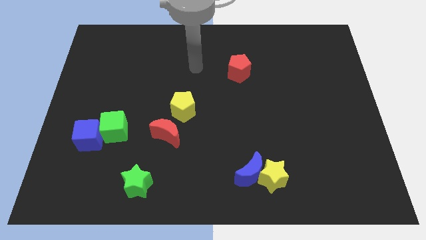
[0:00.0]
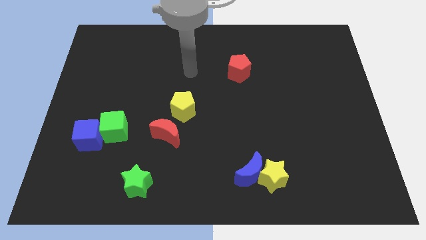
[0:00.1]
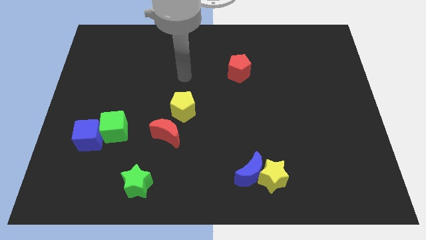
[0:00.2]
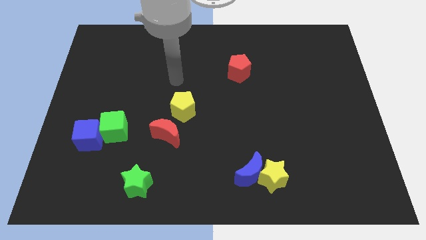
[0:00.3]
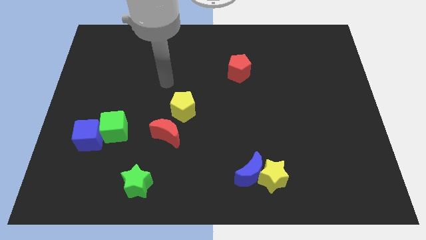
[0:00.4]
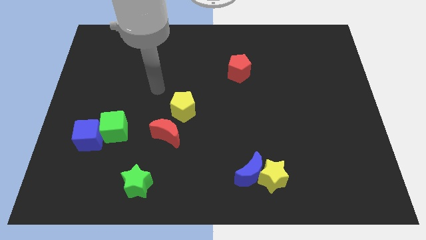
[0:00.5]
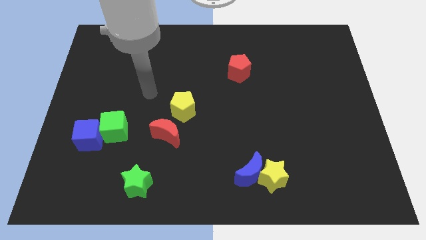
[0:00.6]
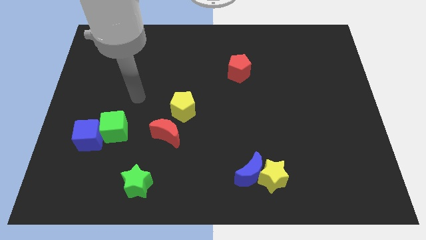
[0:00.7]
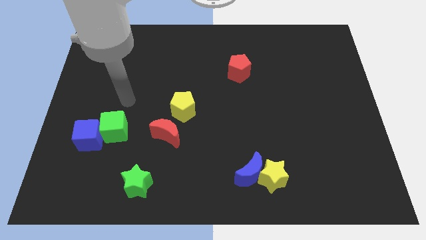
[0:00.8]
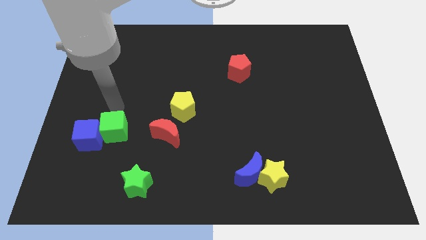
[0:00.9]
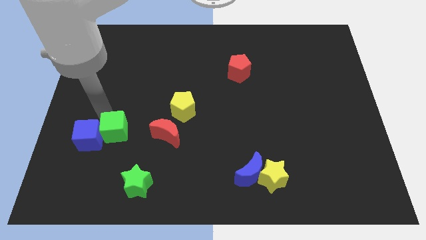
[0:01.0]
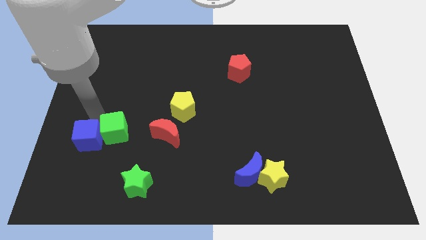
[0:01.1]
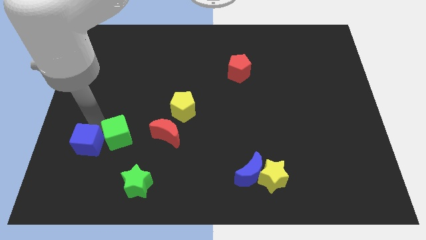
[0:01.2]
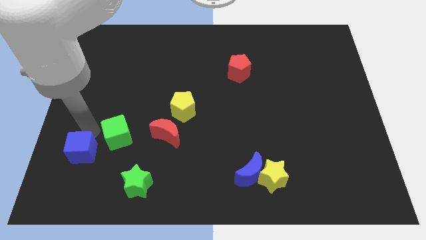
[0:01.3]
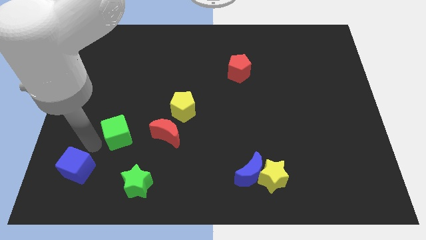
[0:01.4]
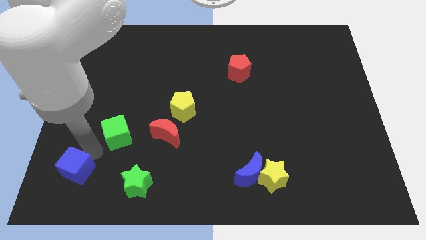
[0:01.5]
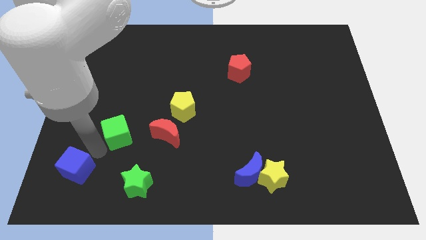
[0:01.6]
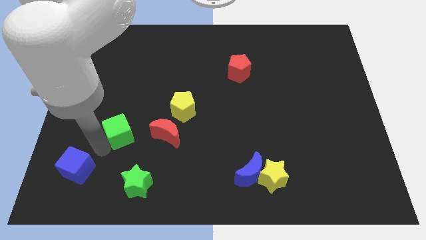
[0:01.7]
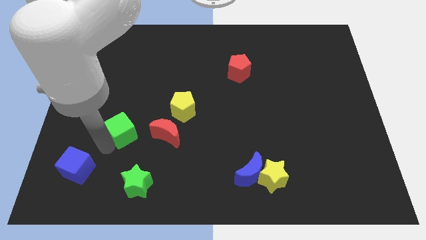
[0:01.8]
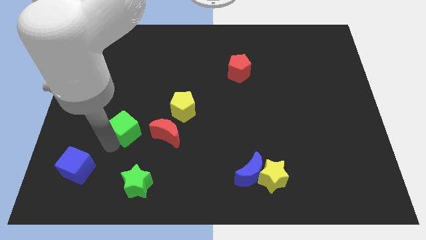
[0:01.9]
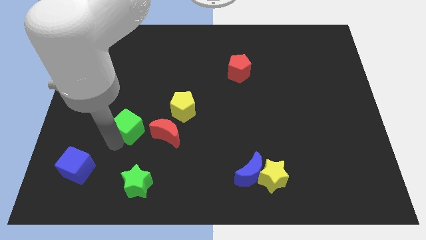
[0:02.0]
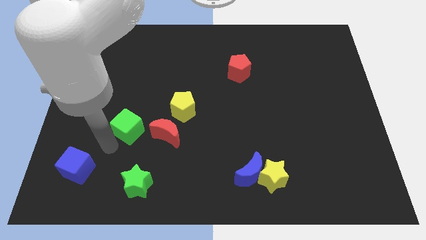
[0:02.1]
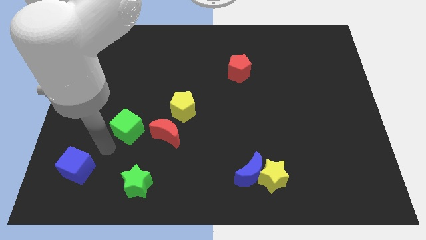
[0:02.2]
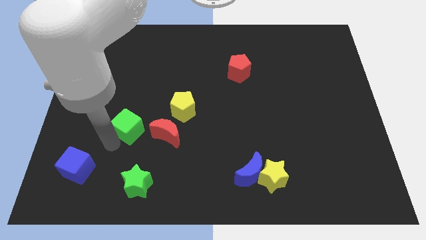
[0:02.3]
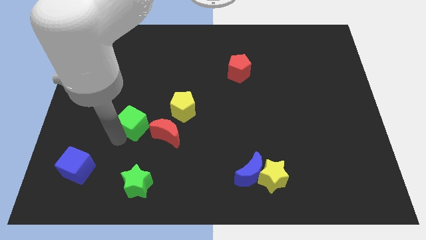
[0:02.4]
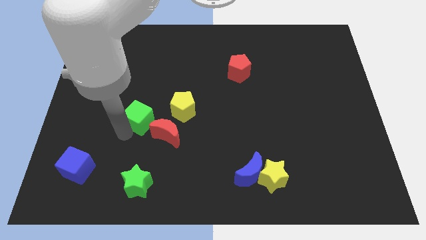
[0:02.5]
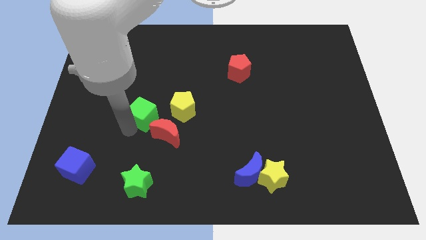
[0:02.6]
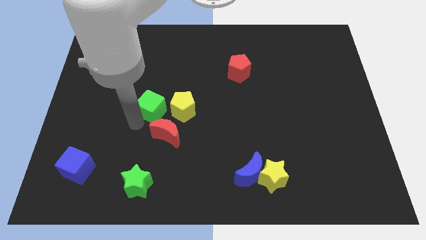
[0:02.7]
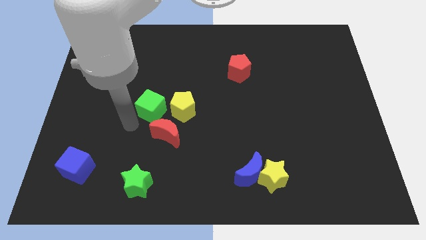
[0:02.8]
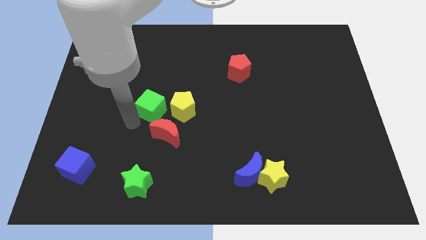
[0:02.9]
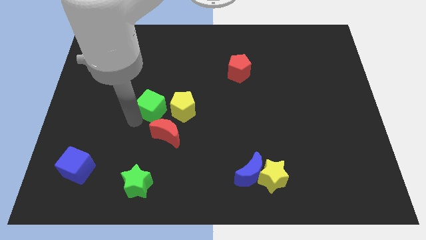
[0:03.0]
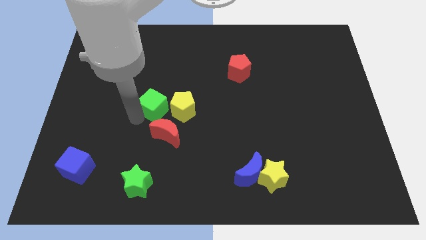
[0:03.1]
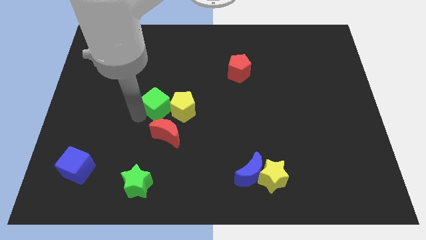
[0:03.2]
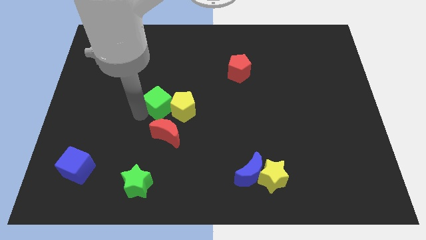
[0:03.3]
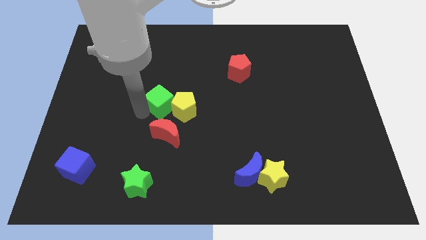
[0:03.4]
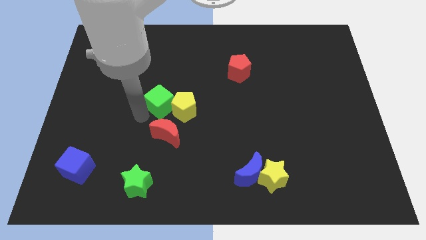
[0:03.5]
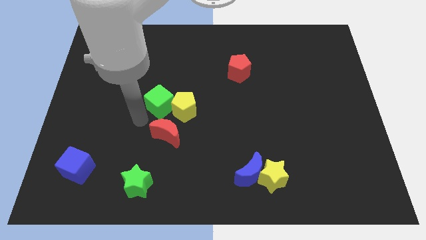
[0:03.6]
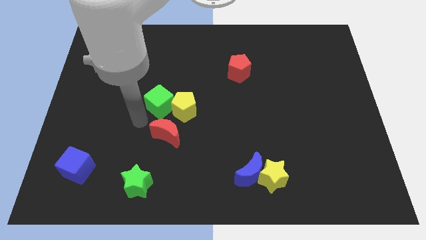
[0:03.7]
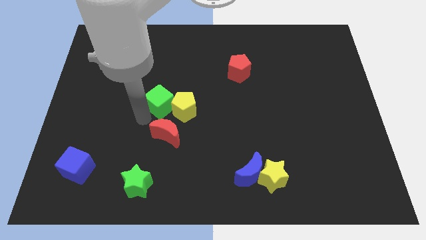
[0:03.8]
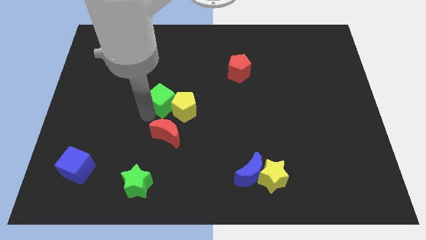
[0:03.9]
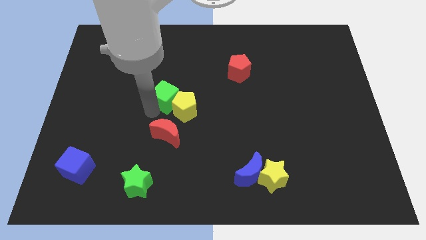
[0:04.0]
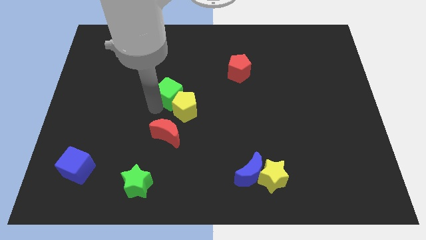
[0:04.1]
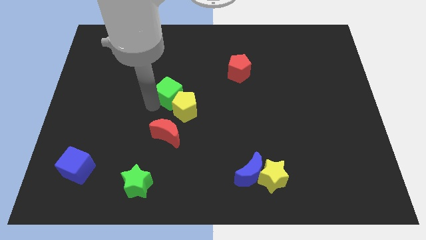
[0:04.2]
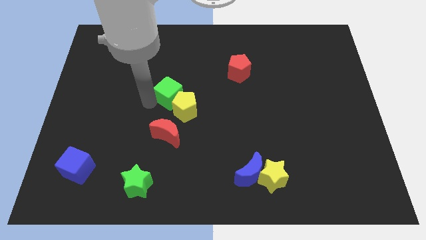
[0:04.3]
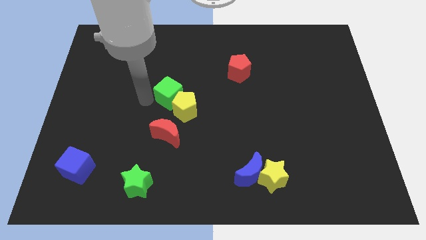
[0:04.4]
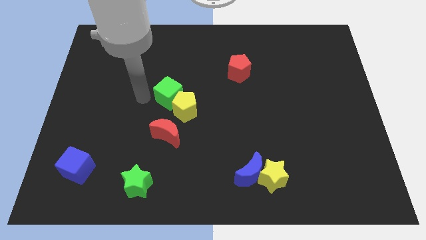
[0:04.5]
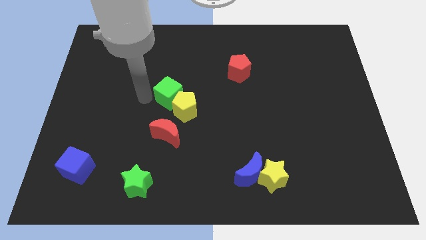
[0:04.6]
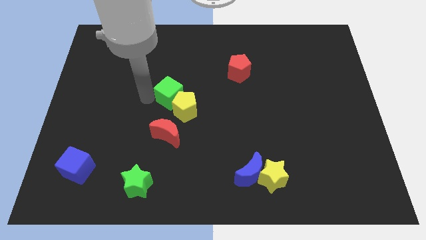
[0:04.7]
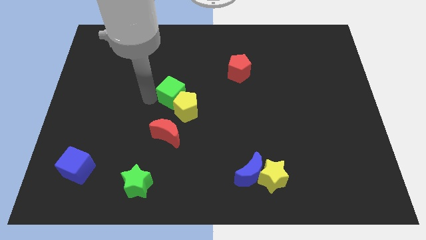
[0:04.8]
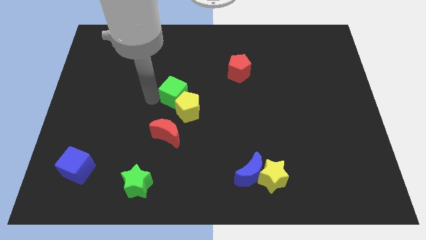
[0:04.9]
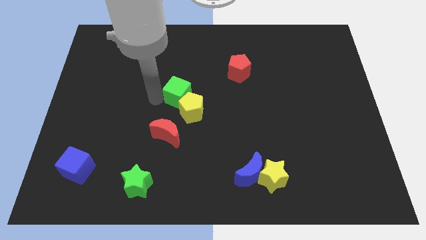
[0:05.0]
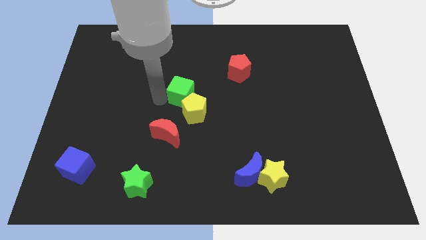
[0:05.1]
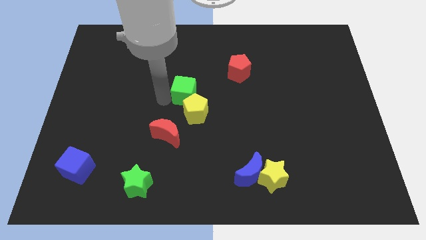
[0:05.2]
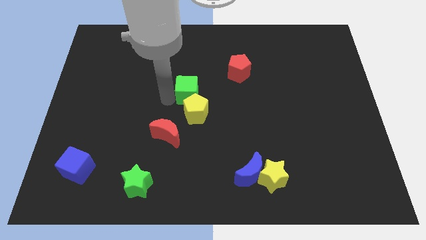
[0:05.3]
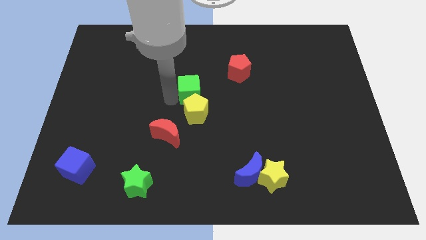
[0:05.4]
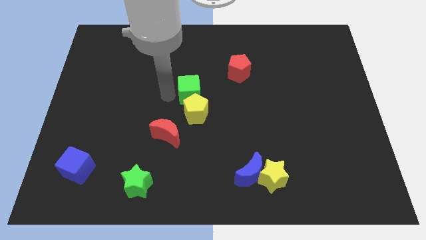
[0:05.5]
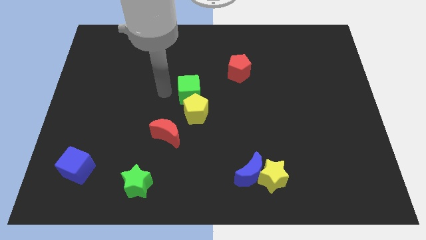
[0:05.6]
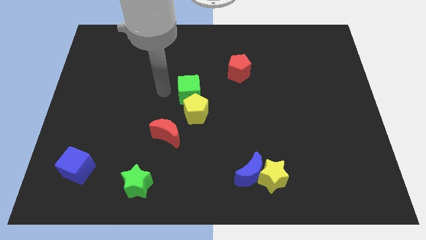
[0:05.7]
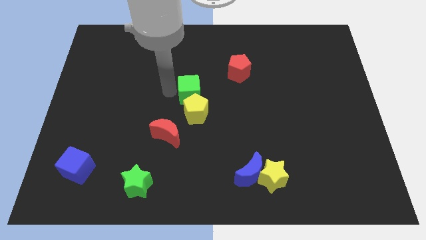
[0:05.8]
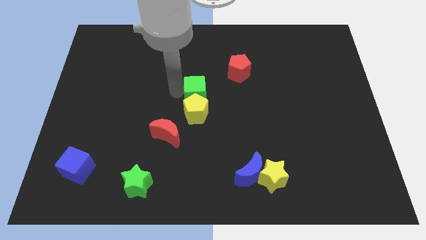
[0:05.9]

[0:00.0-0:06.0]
slide the green cube to the top right side of the yellow pentagon

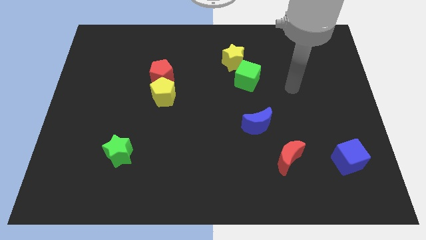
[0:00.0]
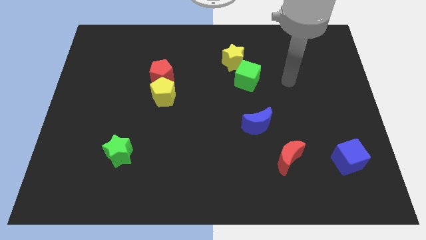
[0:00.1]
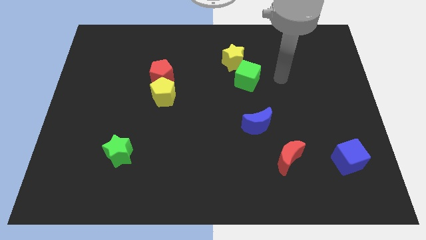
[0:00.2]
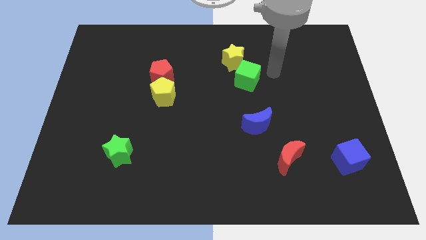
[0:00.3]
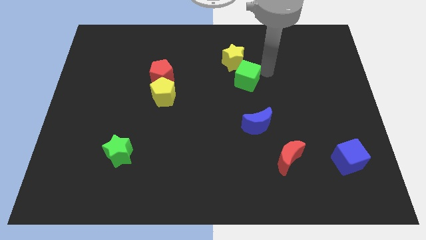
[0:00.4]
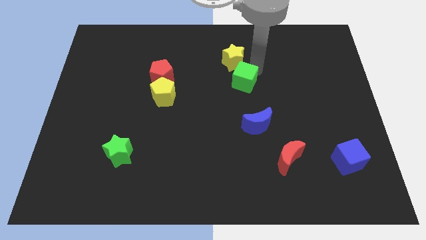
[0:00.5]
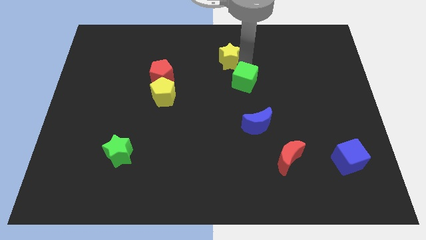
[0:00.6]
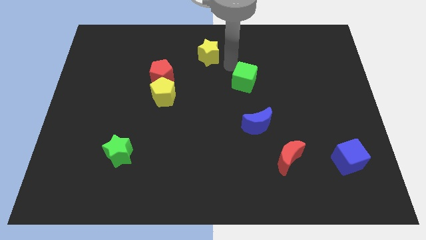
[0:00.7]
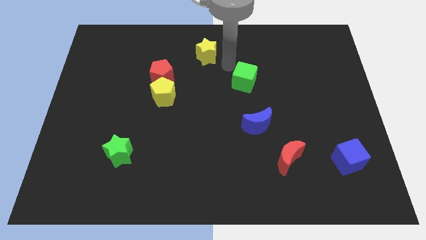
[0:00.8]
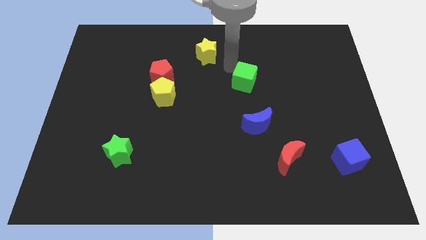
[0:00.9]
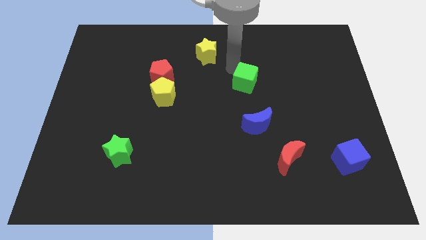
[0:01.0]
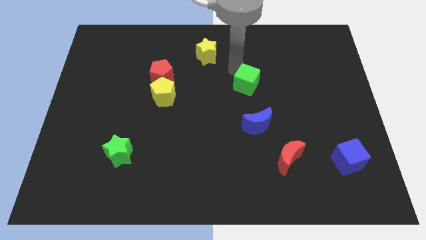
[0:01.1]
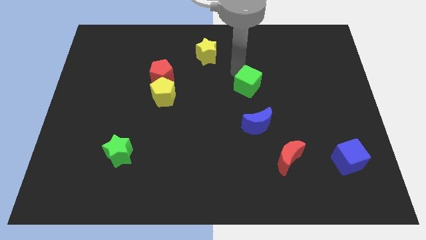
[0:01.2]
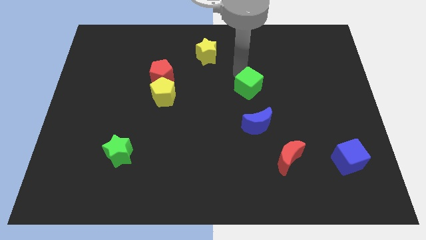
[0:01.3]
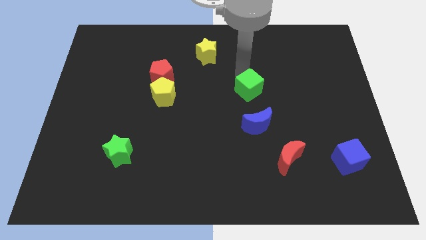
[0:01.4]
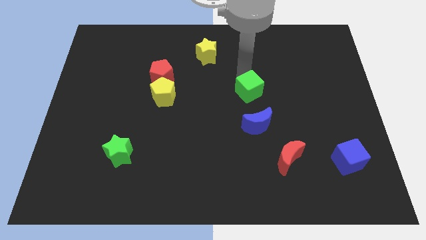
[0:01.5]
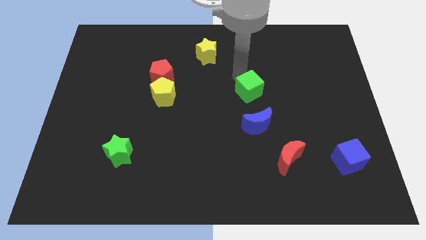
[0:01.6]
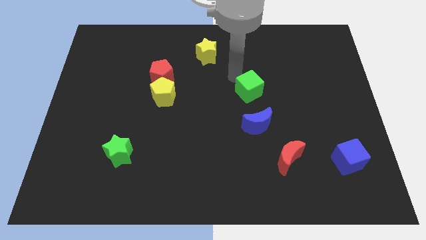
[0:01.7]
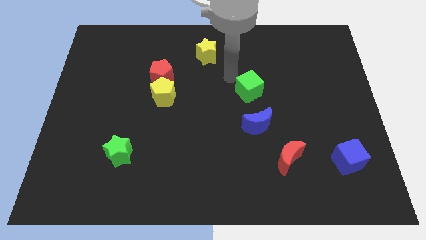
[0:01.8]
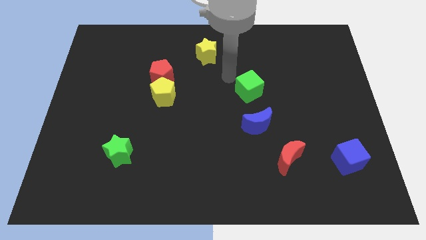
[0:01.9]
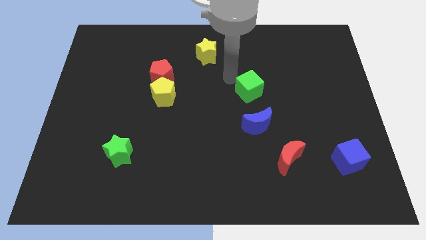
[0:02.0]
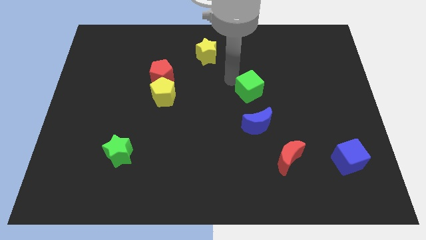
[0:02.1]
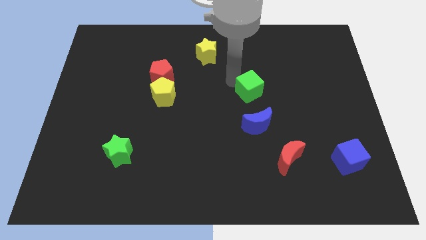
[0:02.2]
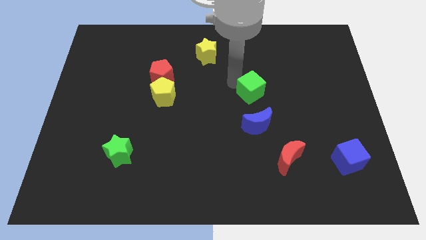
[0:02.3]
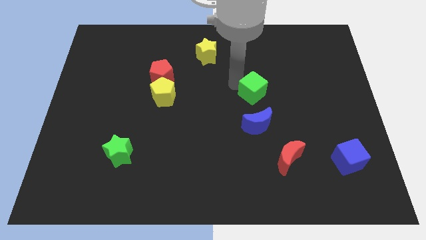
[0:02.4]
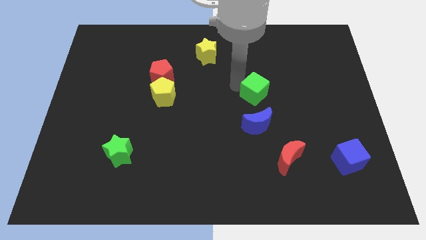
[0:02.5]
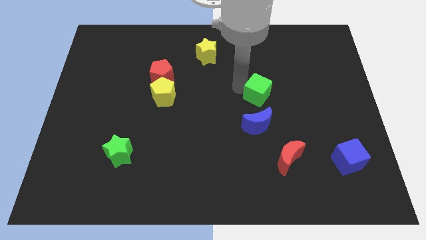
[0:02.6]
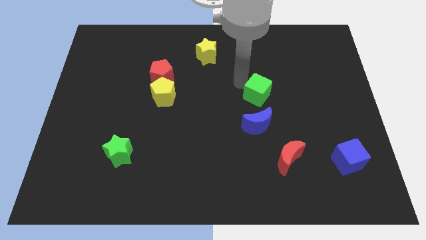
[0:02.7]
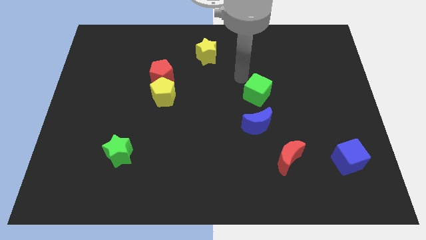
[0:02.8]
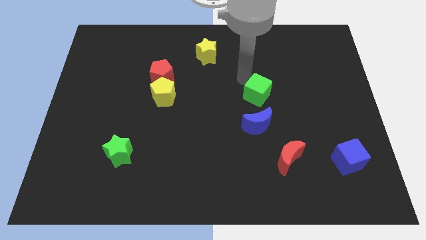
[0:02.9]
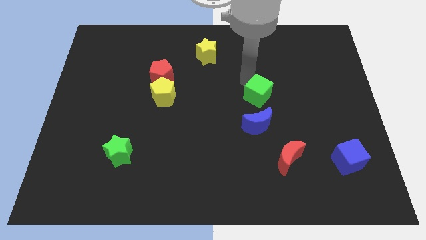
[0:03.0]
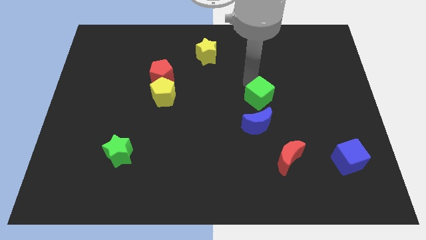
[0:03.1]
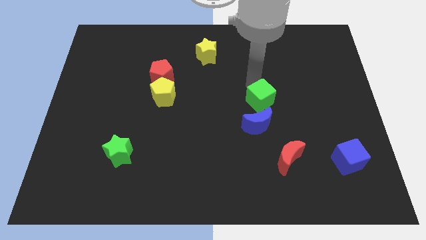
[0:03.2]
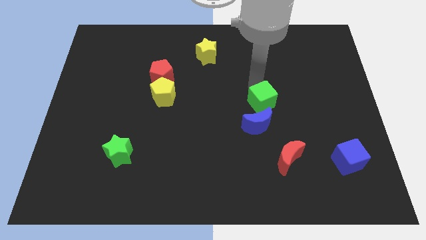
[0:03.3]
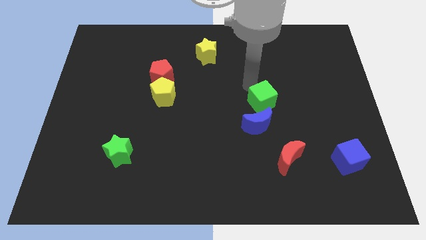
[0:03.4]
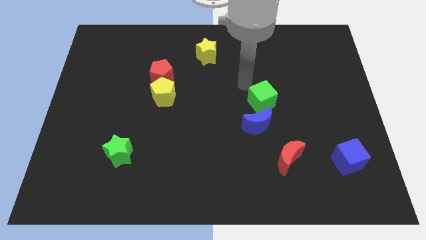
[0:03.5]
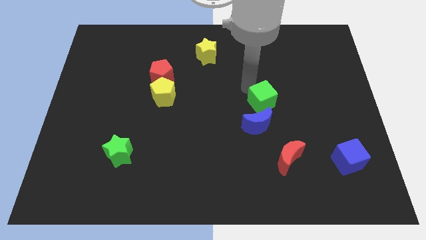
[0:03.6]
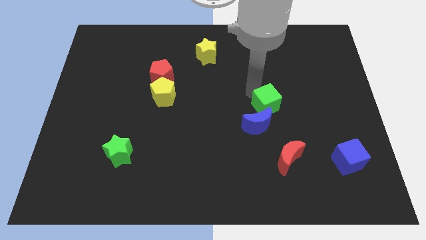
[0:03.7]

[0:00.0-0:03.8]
slide the green cube to the top side of the red moon
